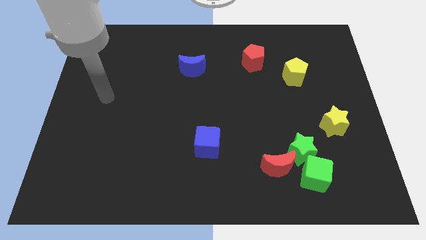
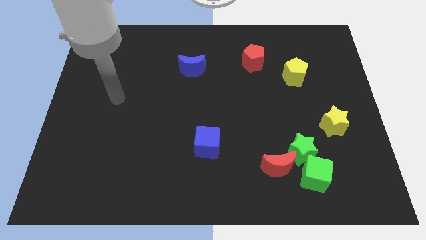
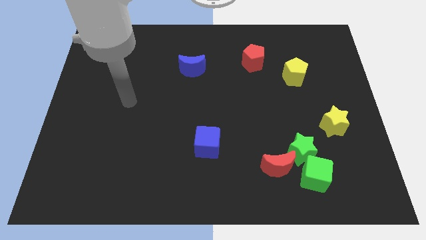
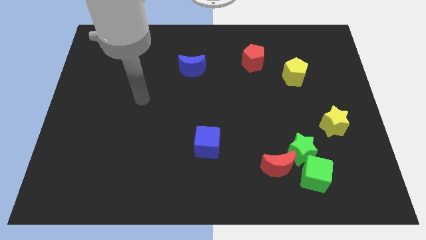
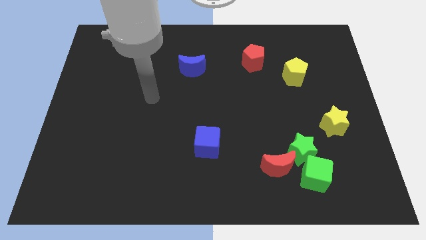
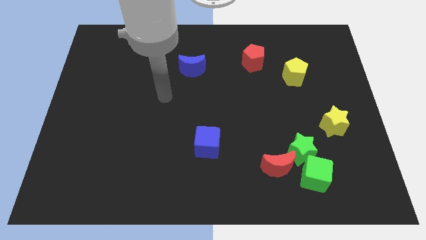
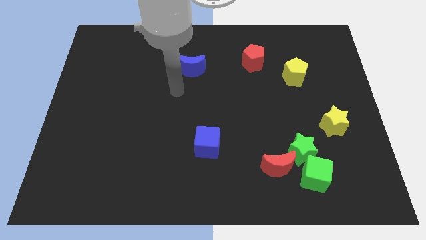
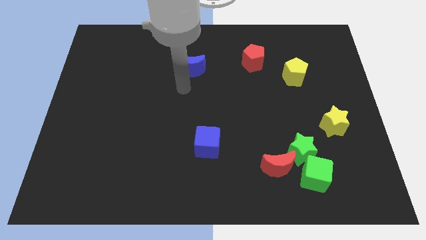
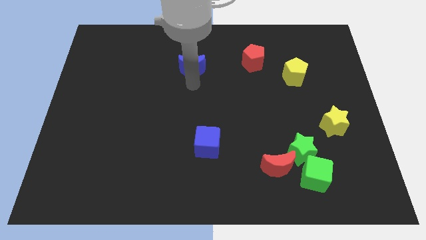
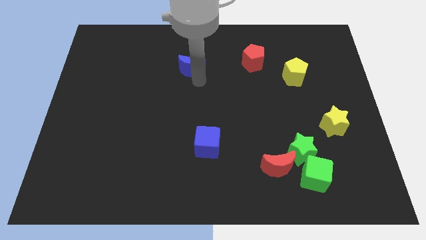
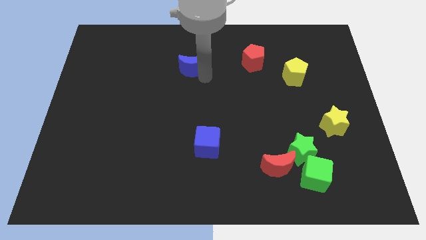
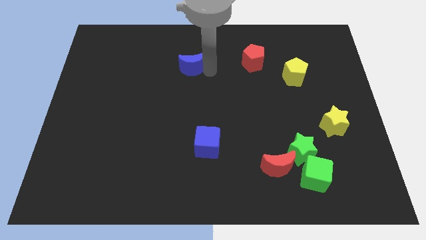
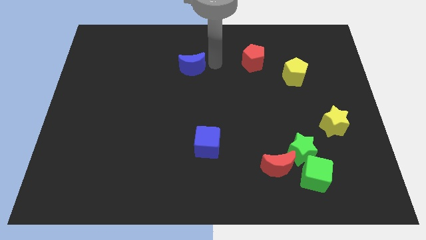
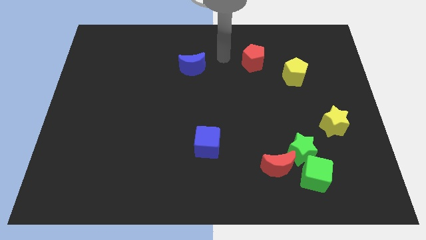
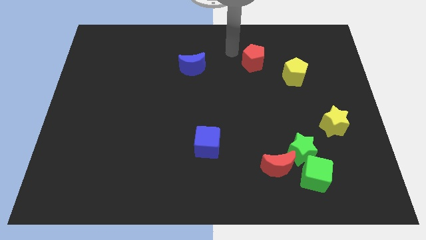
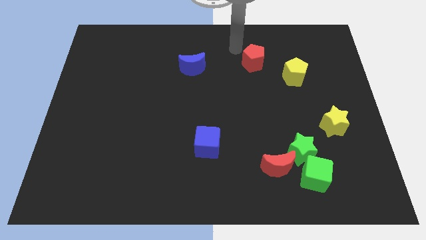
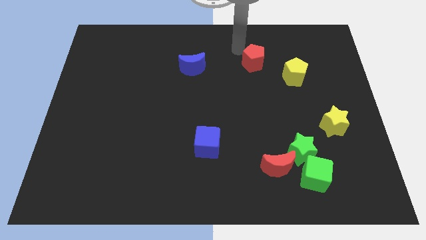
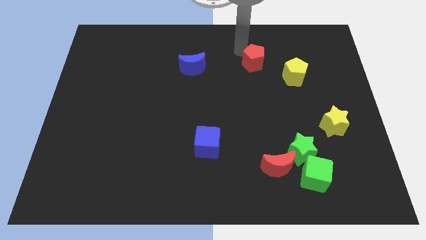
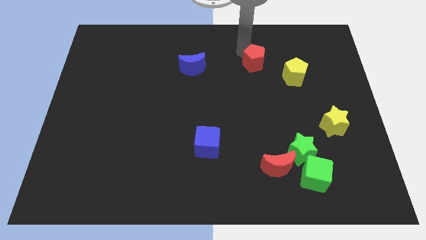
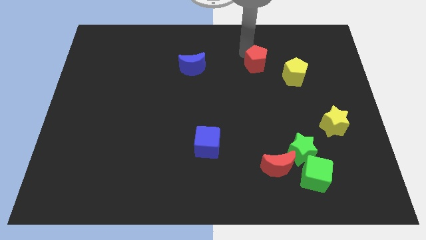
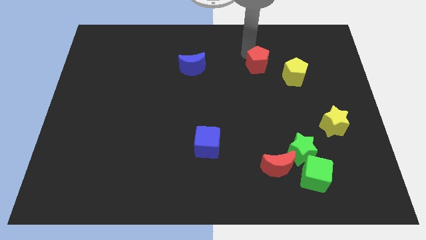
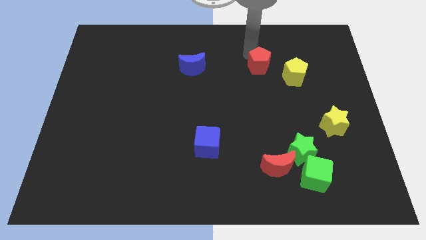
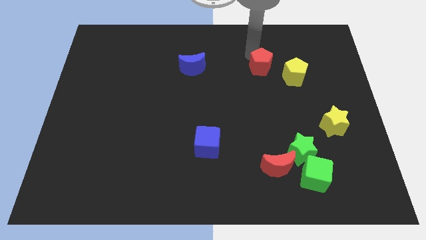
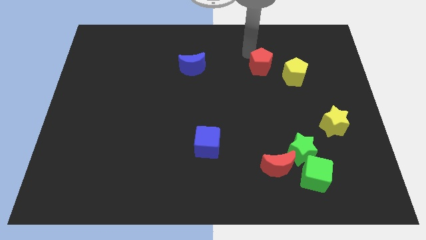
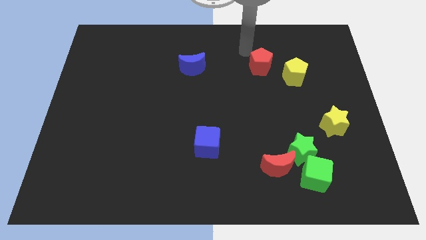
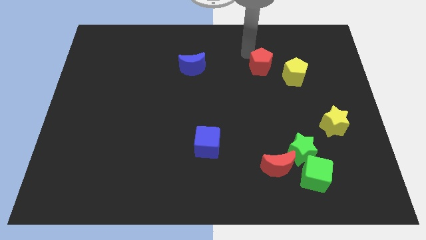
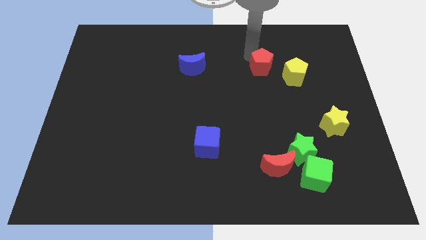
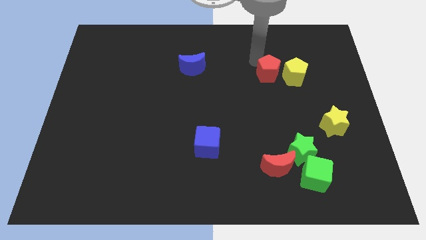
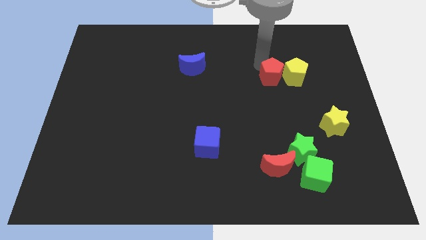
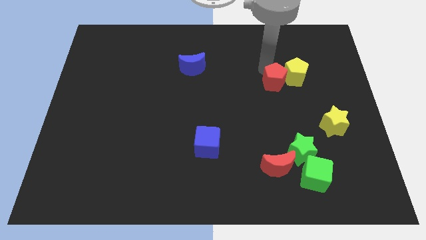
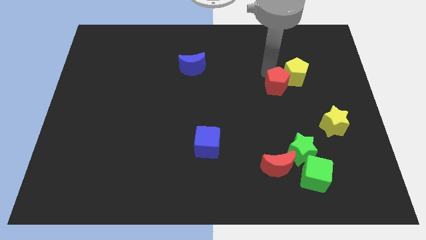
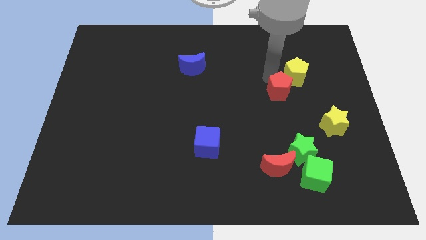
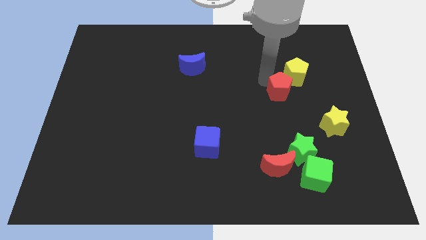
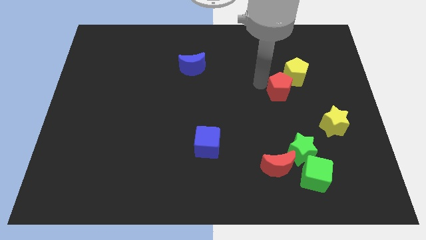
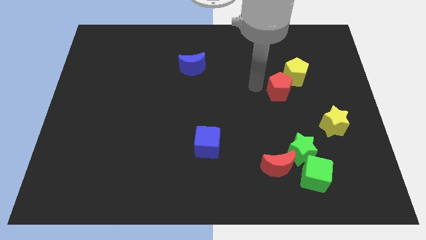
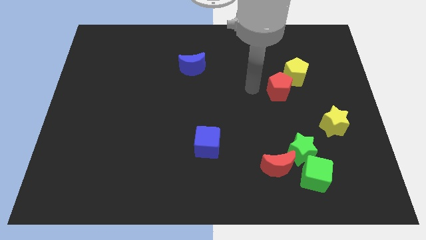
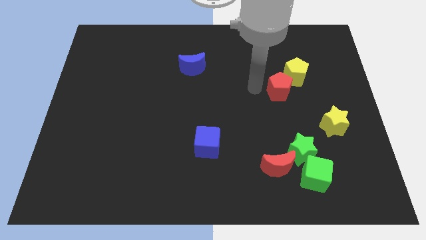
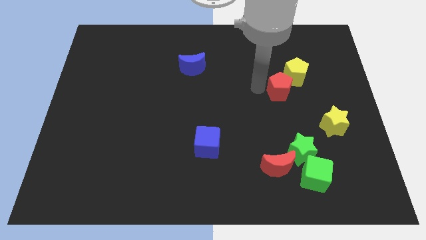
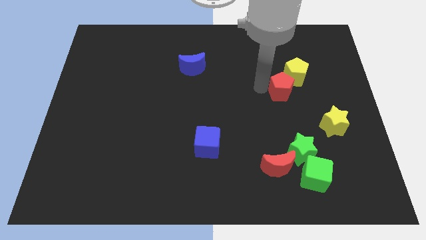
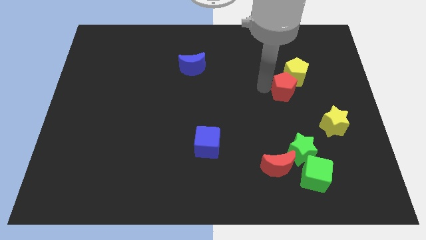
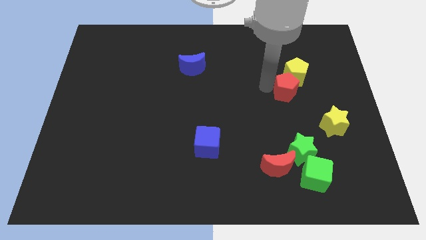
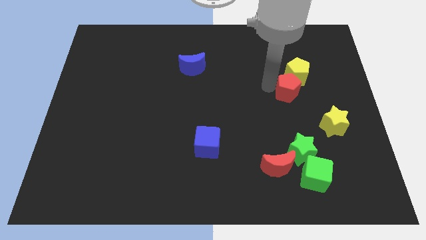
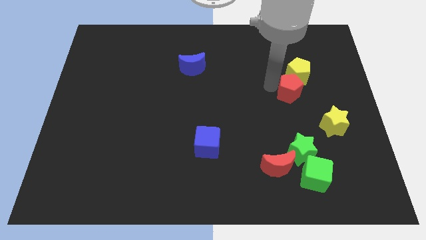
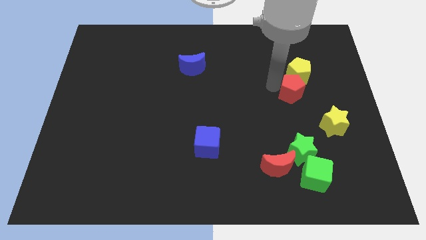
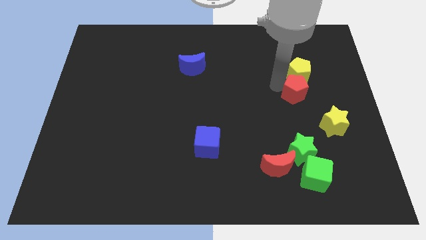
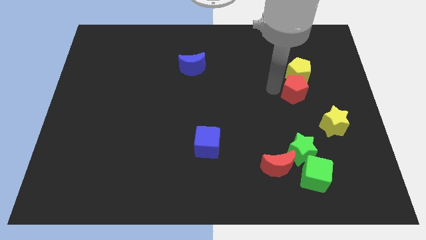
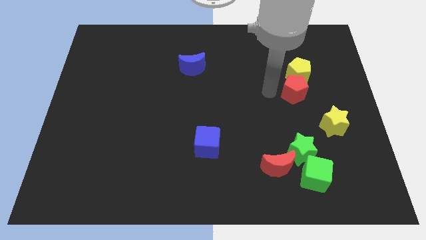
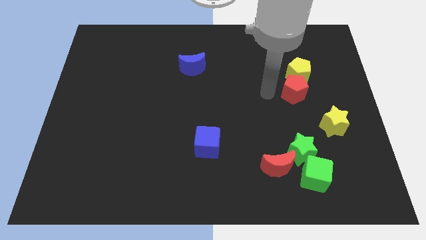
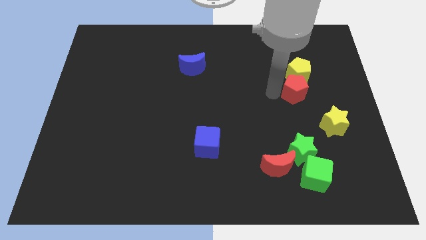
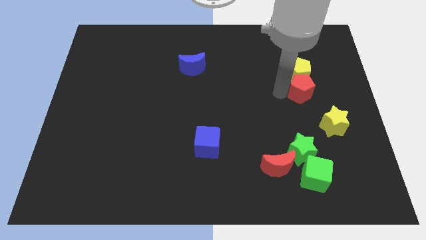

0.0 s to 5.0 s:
put the red pentagon diagonally down and to the right of the yellow pentagon

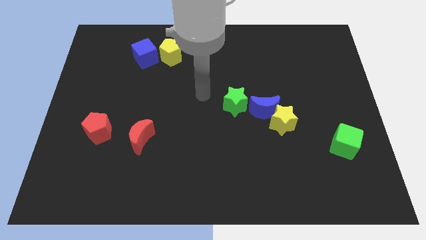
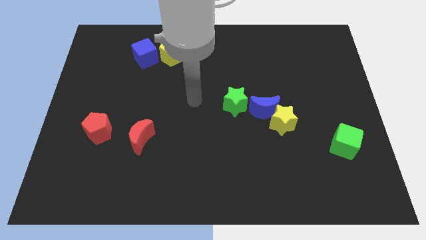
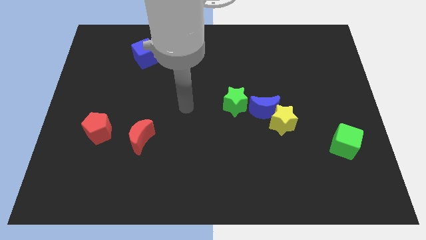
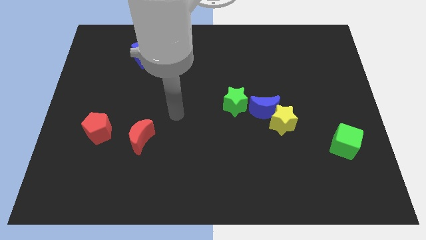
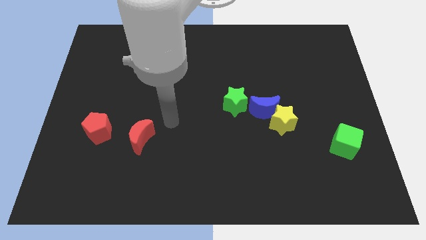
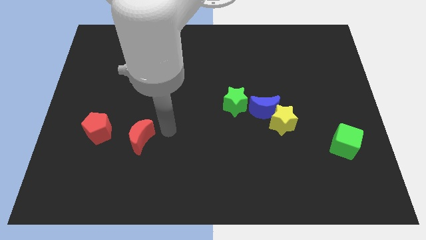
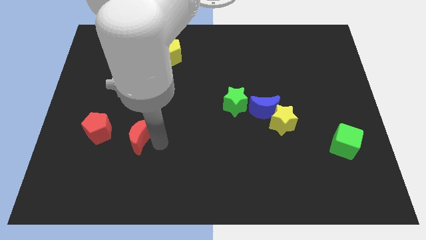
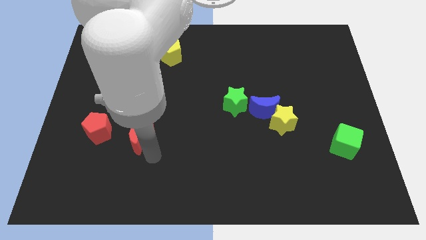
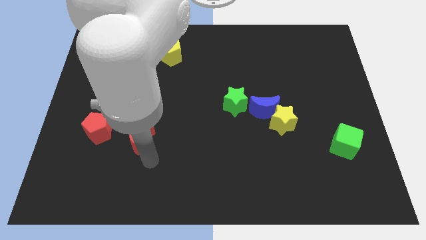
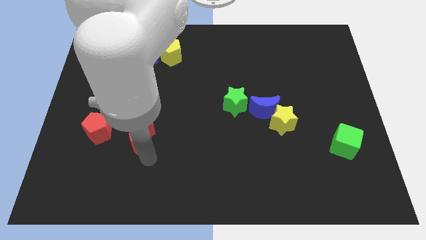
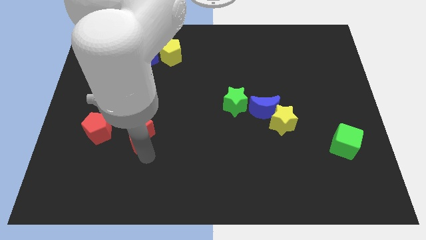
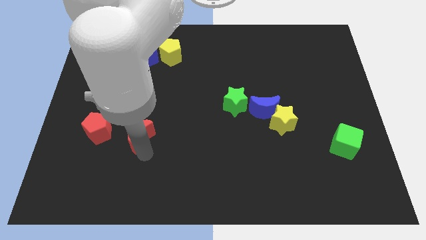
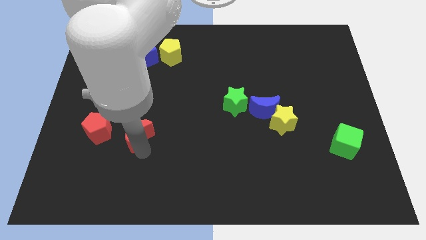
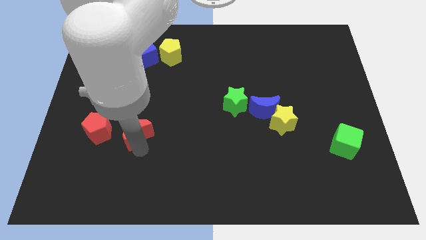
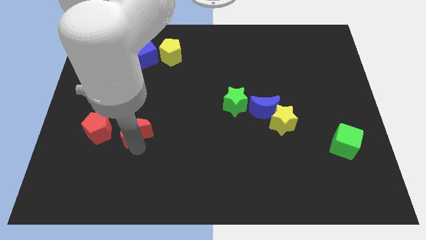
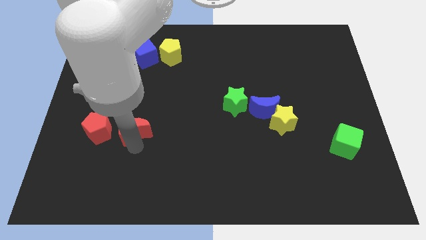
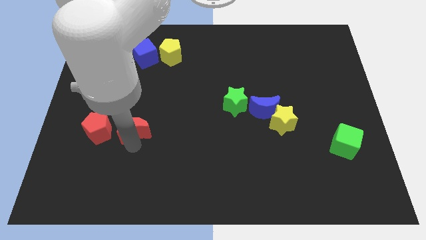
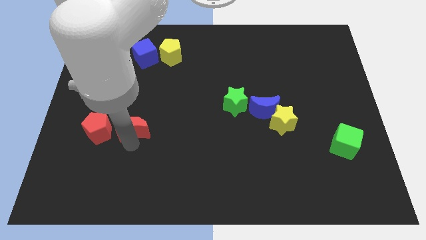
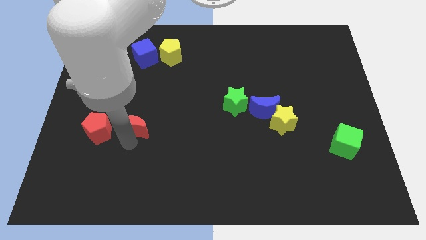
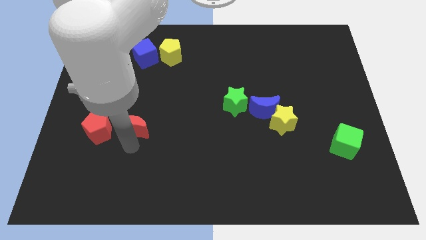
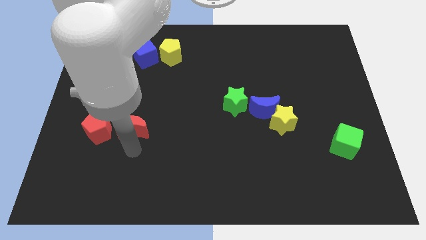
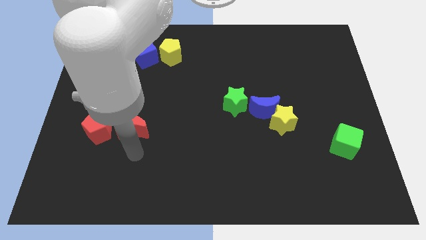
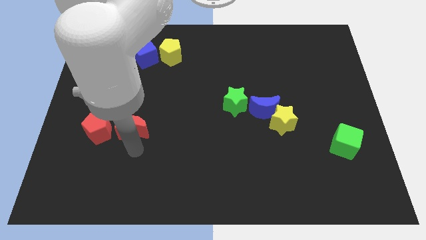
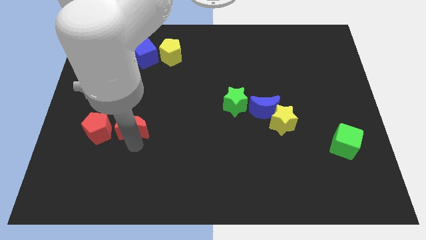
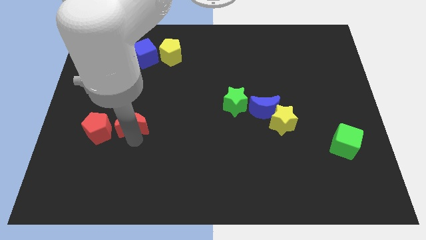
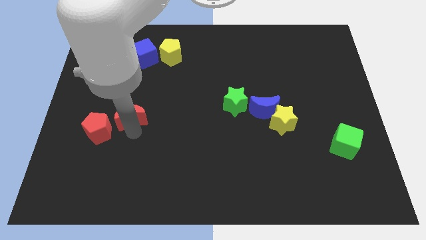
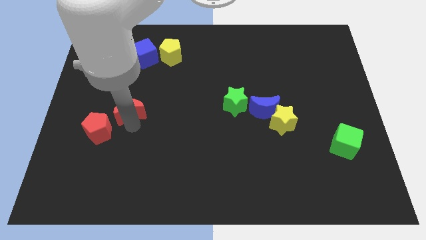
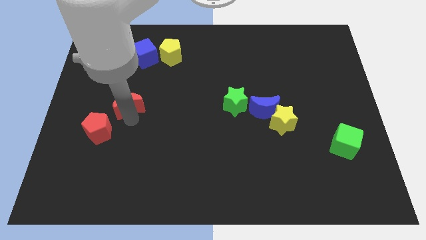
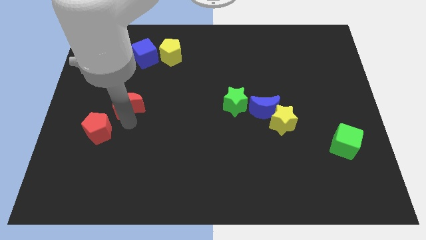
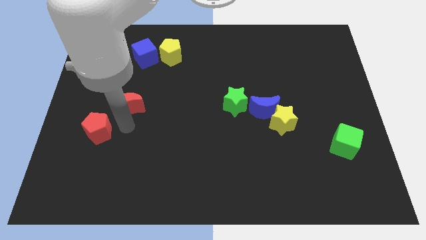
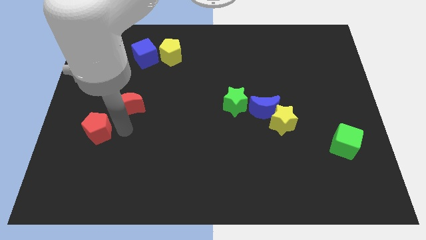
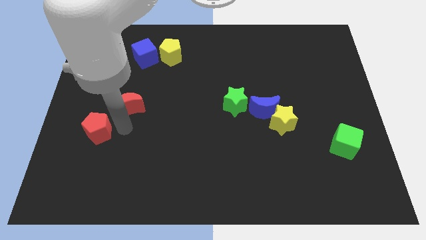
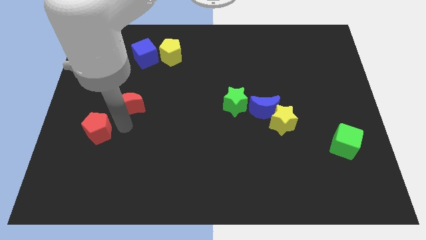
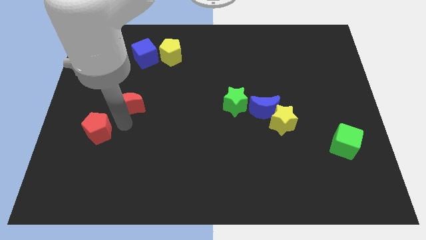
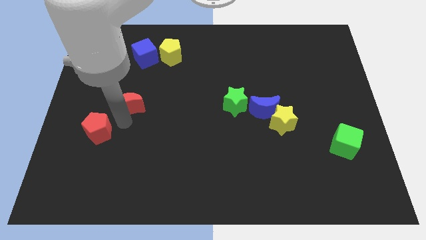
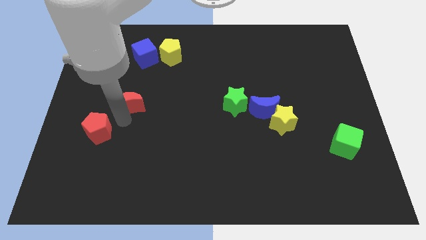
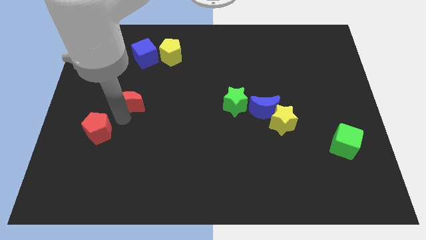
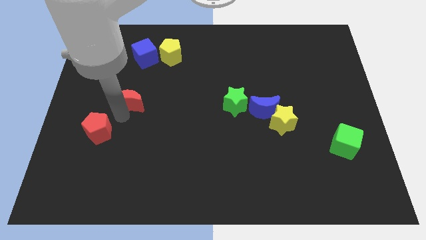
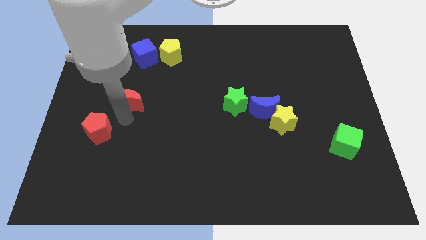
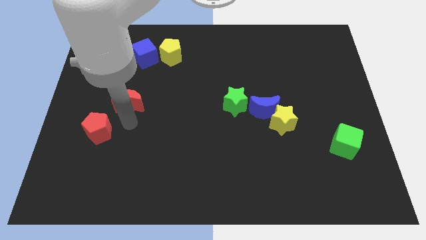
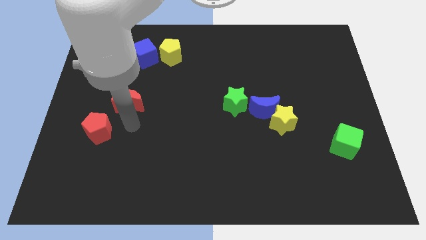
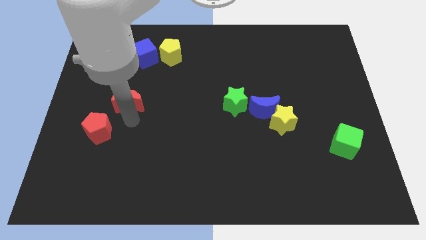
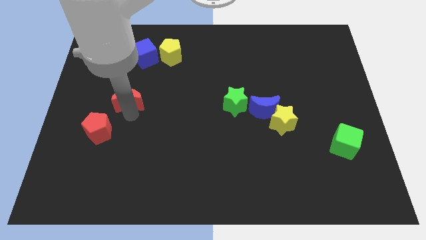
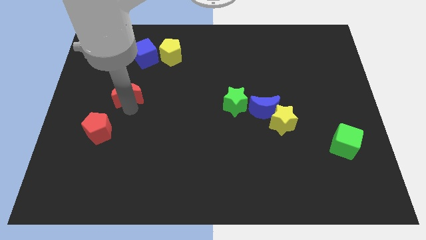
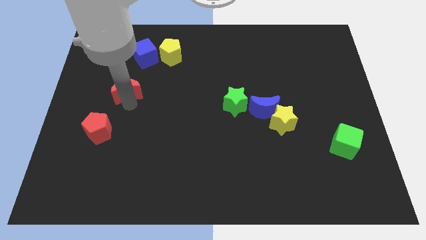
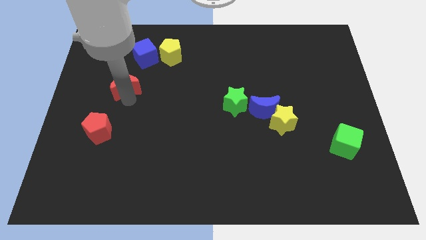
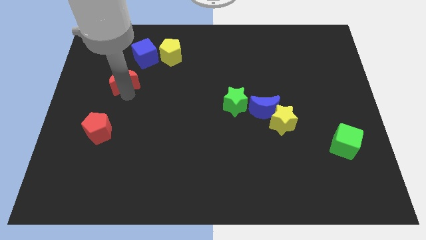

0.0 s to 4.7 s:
push the red moon to the bottom left side of the blue cube
